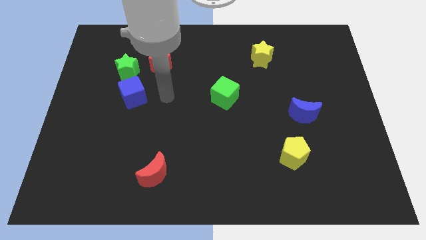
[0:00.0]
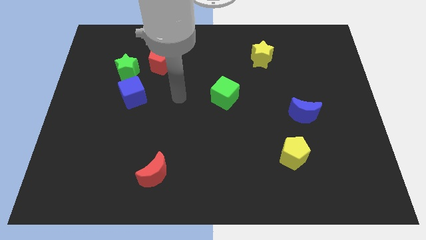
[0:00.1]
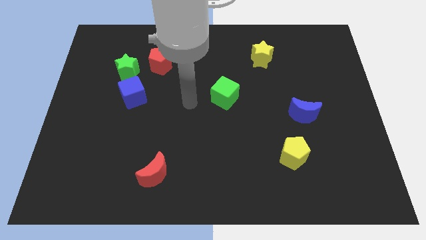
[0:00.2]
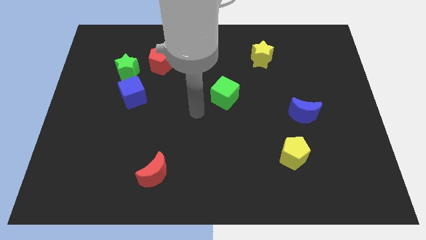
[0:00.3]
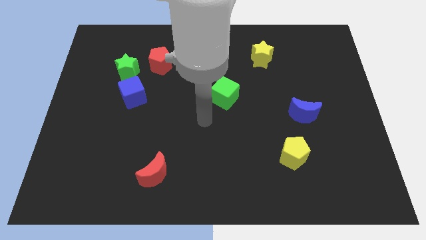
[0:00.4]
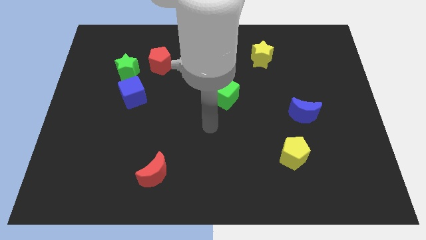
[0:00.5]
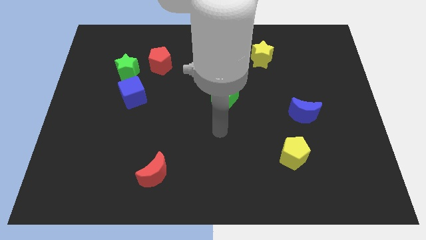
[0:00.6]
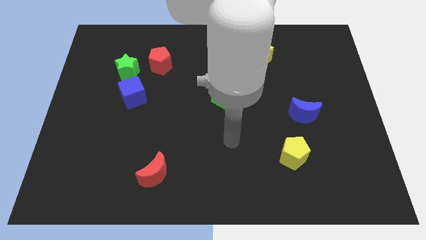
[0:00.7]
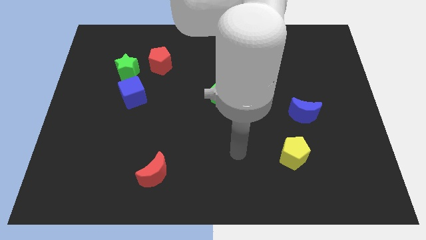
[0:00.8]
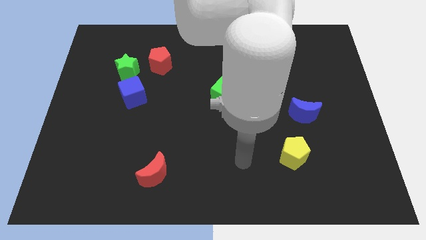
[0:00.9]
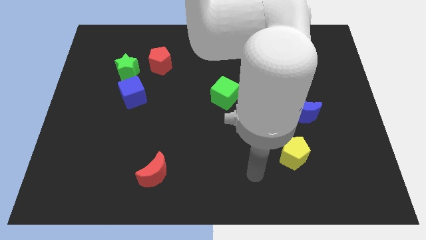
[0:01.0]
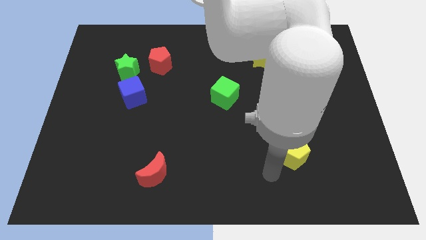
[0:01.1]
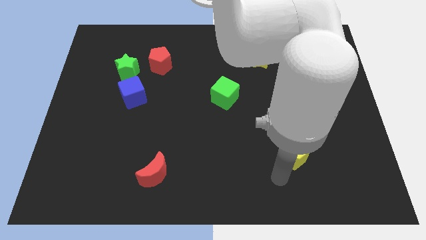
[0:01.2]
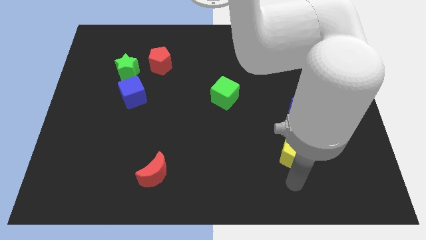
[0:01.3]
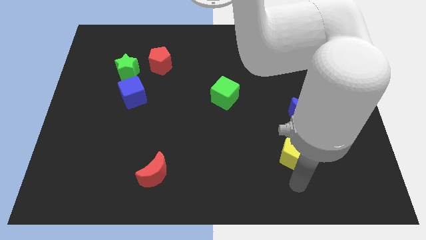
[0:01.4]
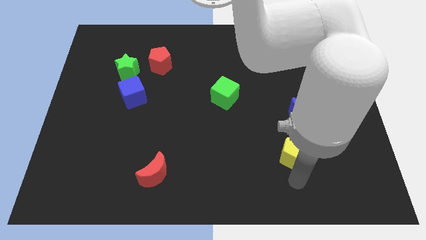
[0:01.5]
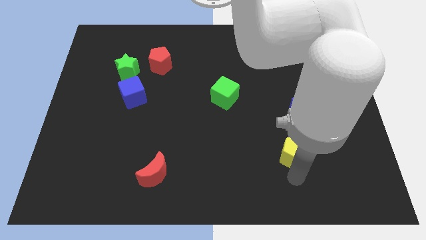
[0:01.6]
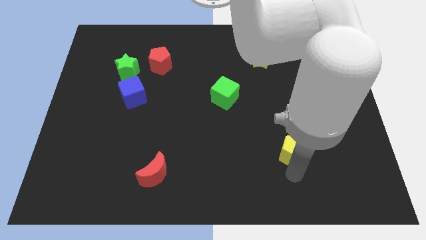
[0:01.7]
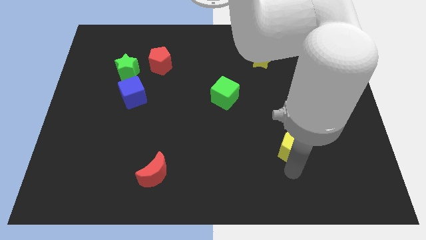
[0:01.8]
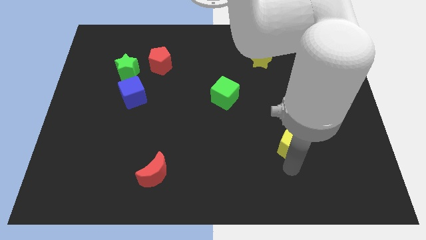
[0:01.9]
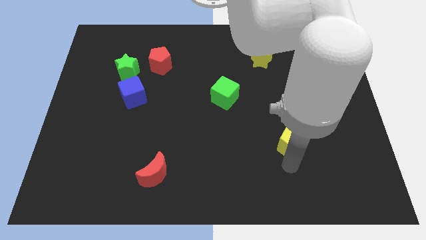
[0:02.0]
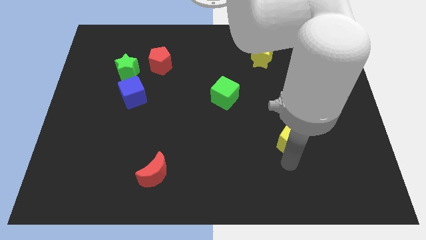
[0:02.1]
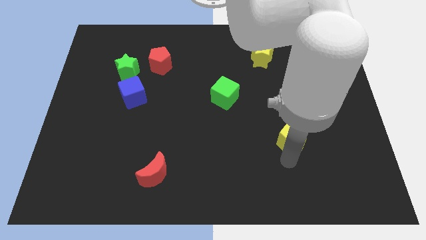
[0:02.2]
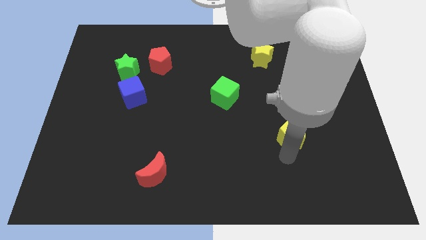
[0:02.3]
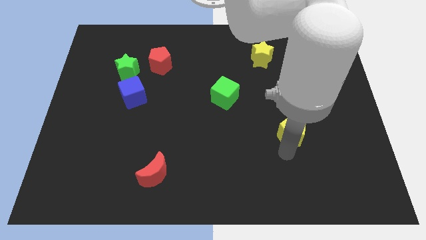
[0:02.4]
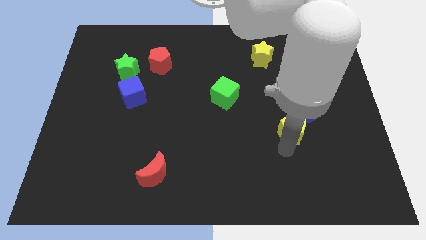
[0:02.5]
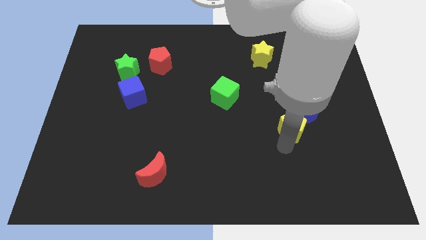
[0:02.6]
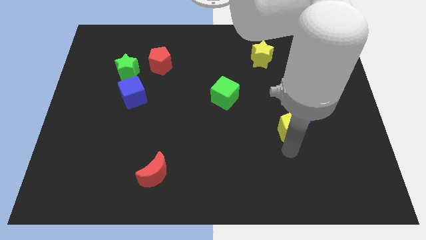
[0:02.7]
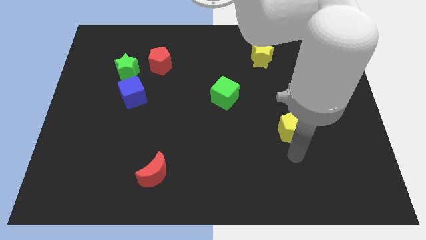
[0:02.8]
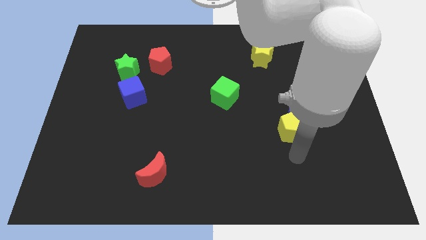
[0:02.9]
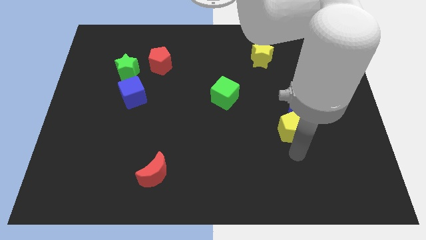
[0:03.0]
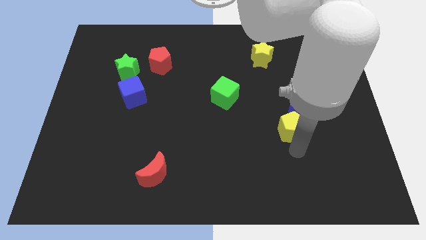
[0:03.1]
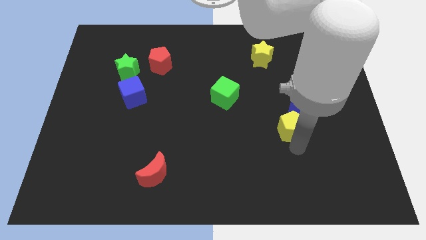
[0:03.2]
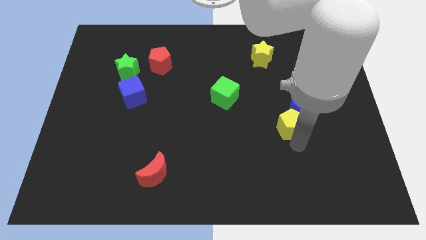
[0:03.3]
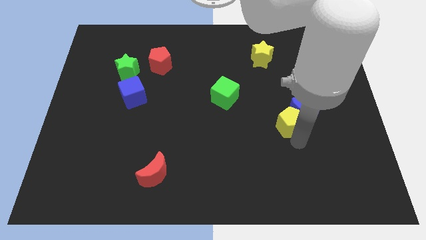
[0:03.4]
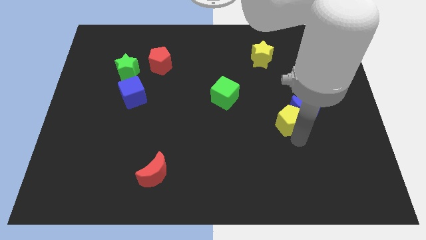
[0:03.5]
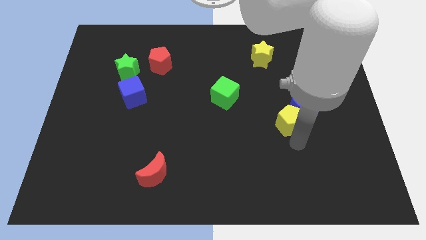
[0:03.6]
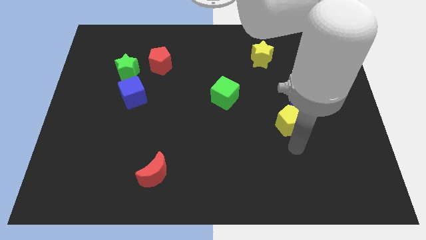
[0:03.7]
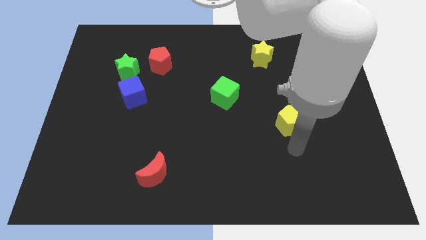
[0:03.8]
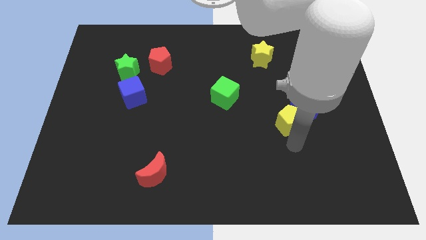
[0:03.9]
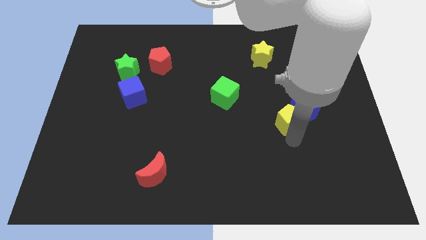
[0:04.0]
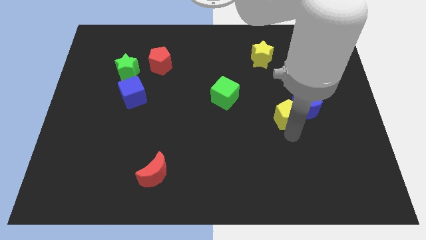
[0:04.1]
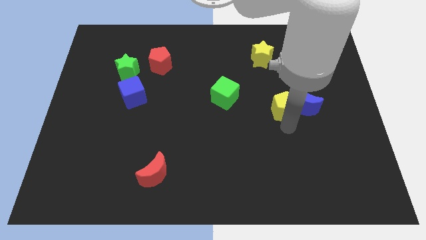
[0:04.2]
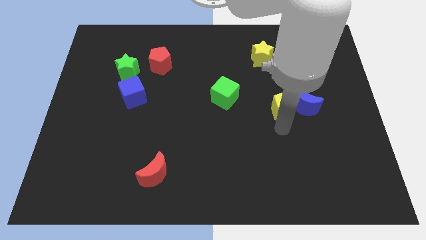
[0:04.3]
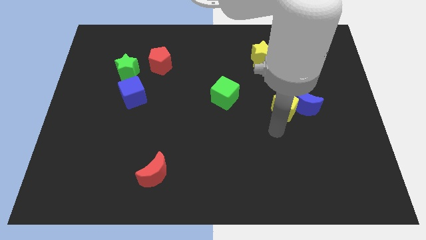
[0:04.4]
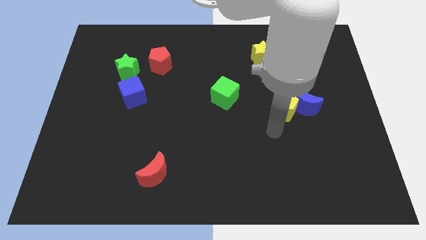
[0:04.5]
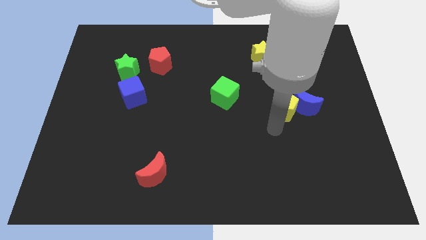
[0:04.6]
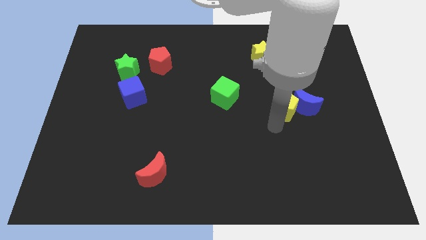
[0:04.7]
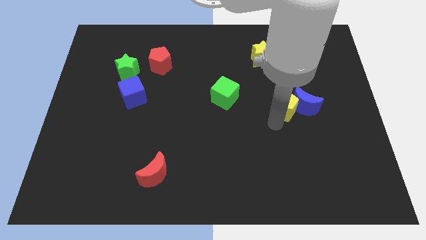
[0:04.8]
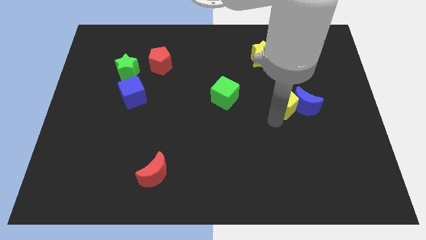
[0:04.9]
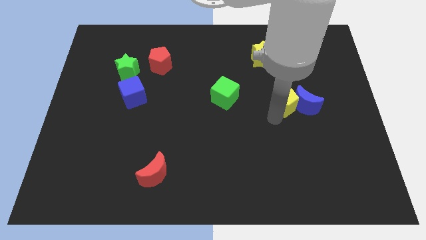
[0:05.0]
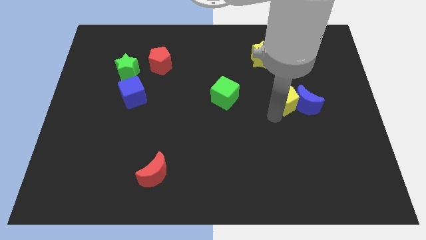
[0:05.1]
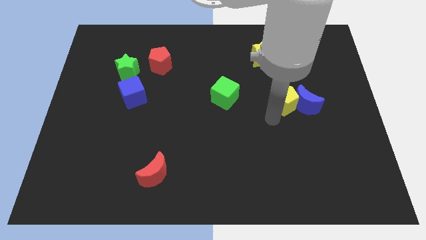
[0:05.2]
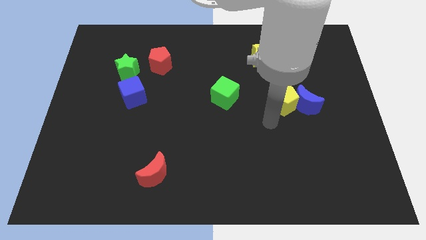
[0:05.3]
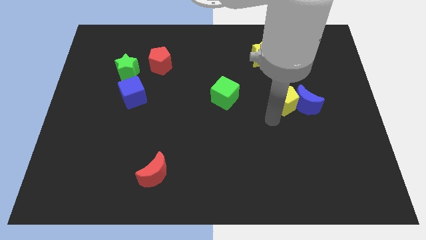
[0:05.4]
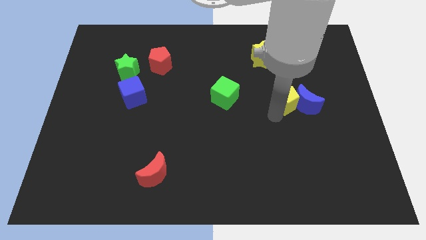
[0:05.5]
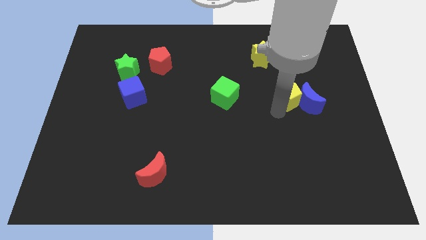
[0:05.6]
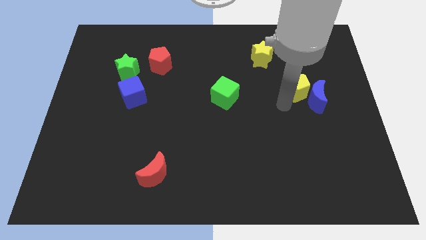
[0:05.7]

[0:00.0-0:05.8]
put the yellow pentagon to the top side of the blue moon

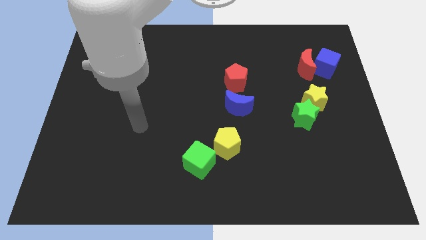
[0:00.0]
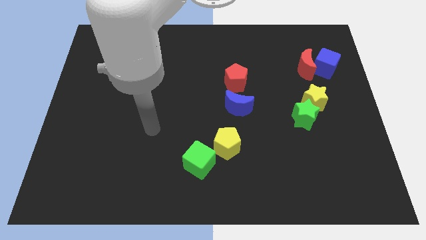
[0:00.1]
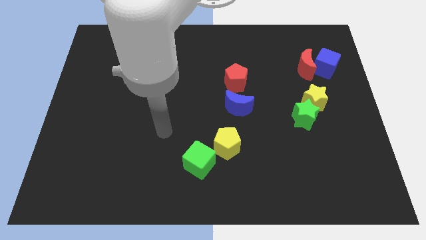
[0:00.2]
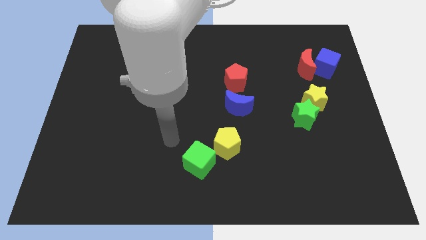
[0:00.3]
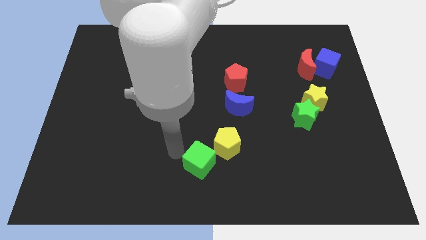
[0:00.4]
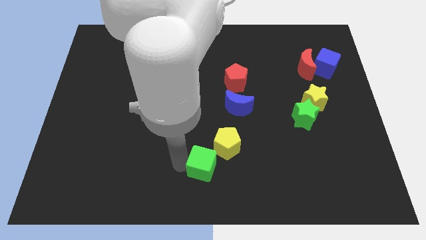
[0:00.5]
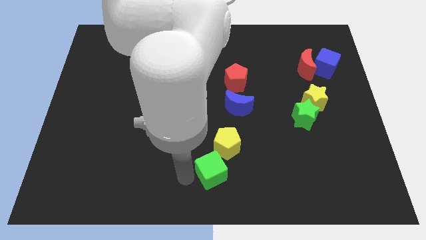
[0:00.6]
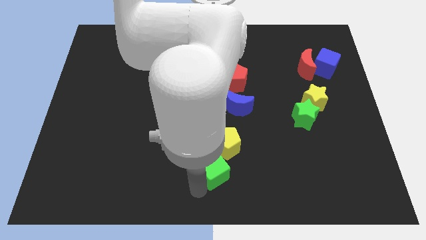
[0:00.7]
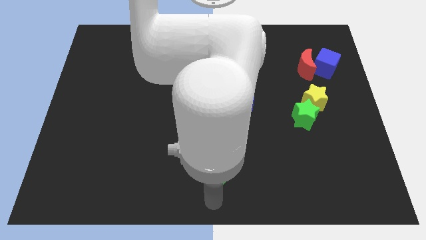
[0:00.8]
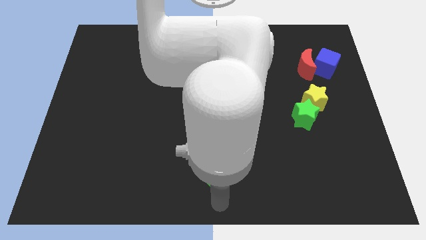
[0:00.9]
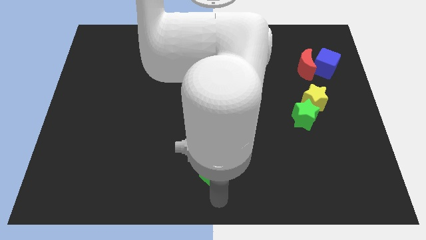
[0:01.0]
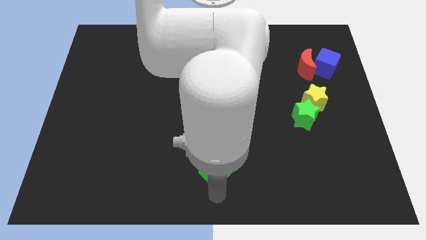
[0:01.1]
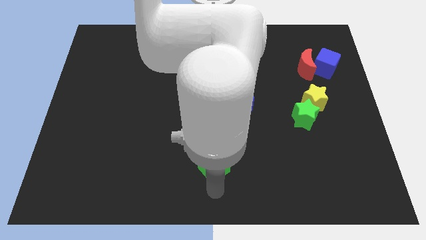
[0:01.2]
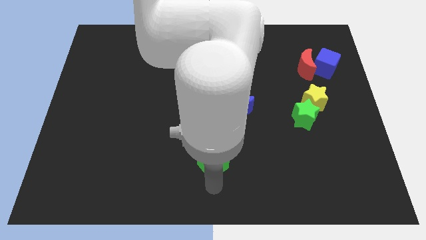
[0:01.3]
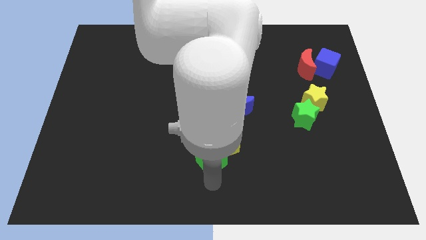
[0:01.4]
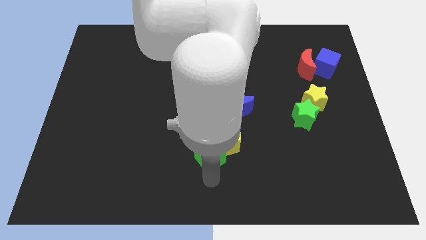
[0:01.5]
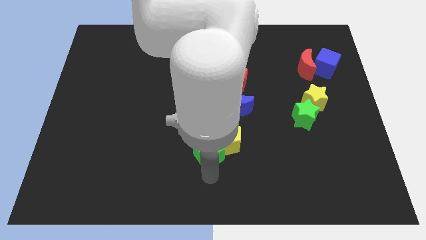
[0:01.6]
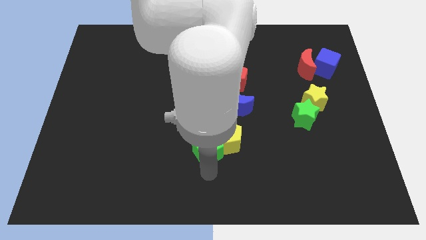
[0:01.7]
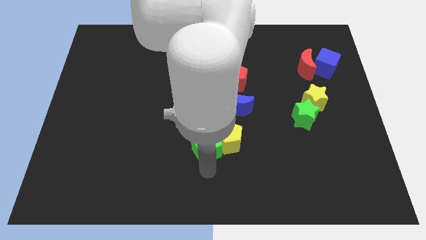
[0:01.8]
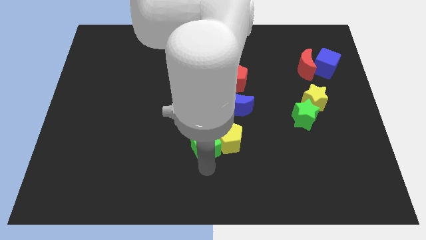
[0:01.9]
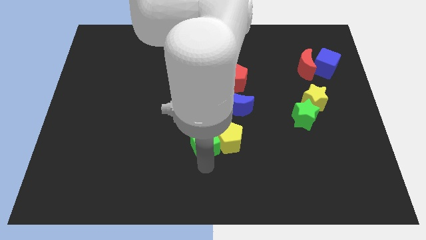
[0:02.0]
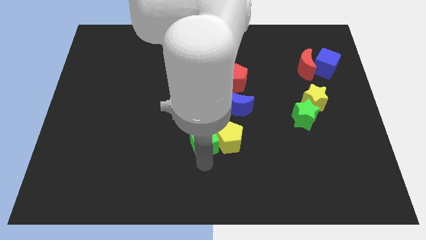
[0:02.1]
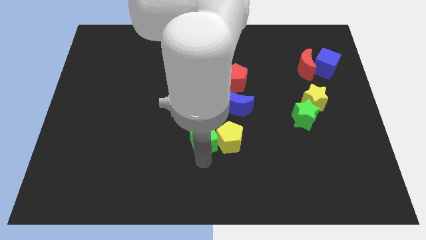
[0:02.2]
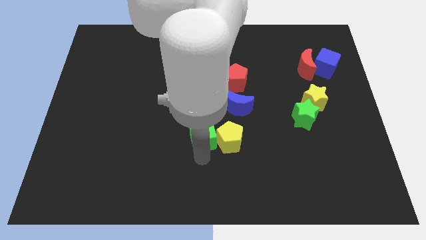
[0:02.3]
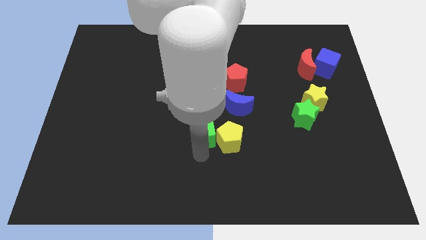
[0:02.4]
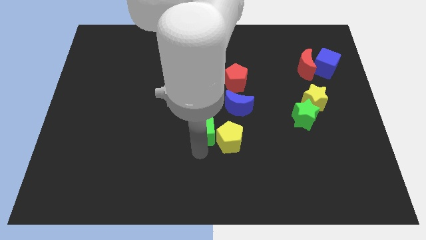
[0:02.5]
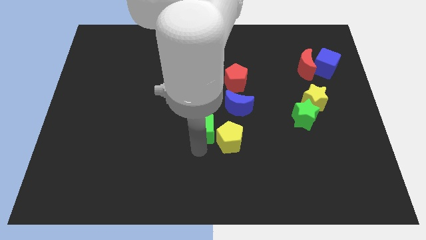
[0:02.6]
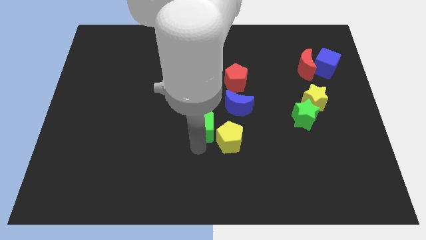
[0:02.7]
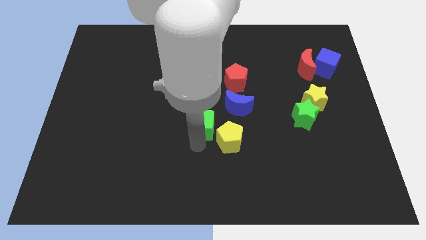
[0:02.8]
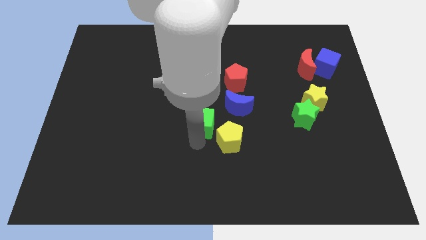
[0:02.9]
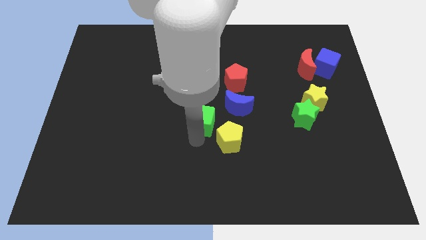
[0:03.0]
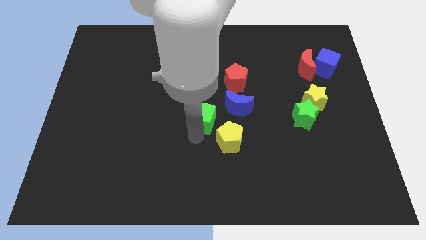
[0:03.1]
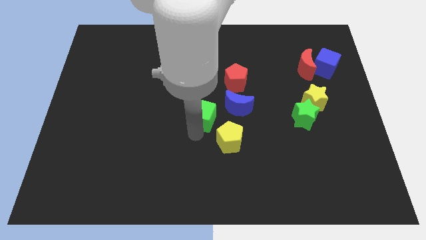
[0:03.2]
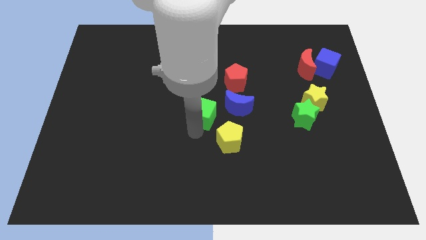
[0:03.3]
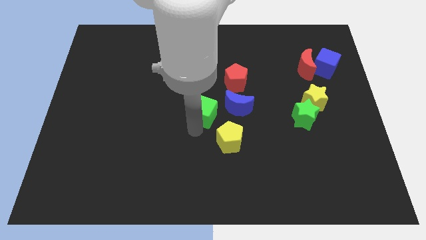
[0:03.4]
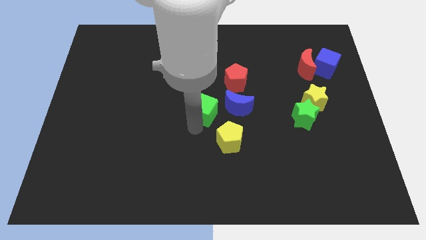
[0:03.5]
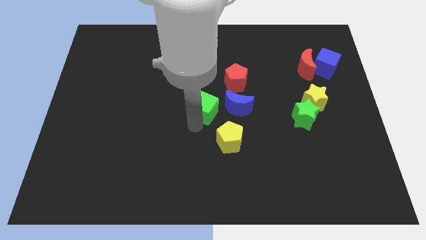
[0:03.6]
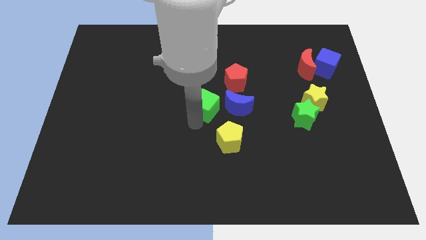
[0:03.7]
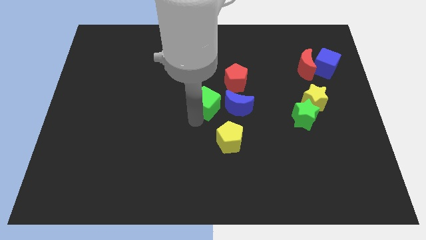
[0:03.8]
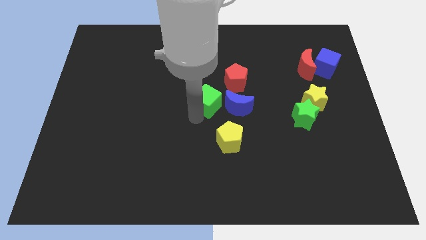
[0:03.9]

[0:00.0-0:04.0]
put the green cube to the top side of the yellow pentagon
